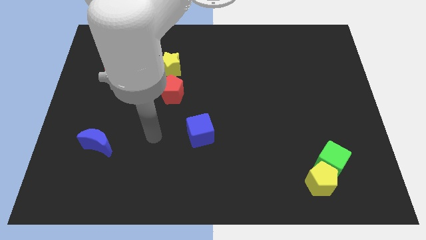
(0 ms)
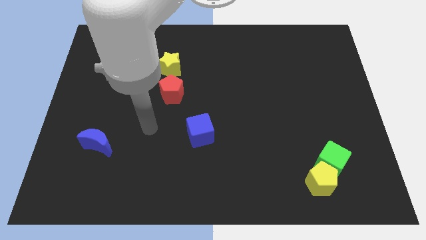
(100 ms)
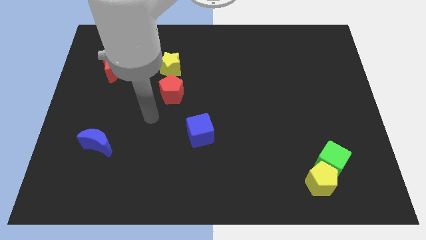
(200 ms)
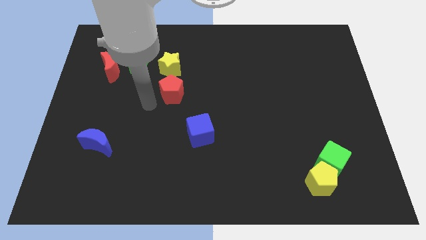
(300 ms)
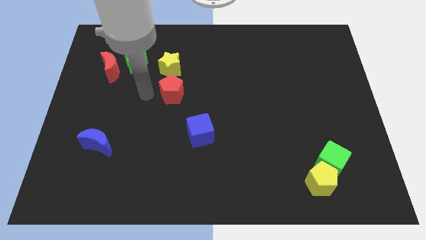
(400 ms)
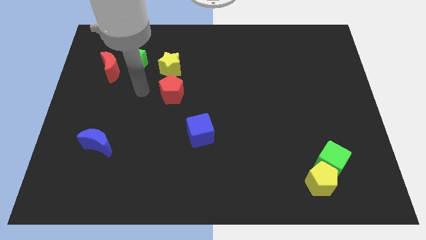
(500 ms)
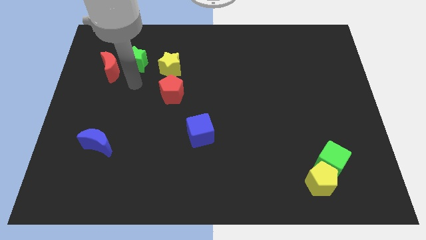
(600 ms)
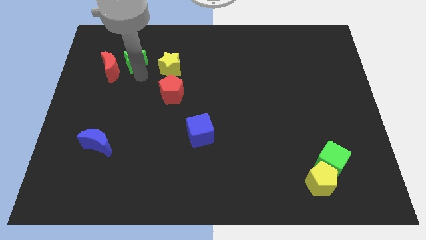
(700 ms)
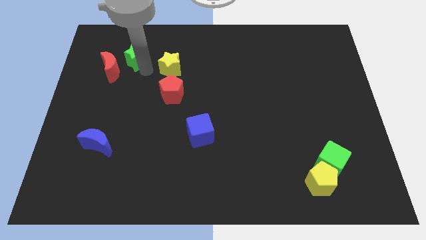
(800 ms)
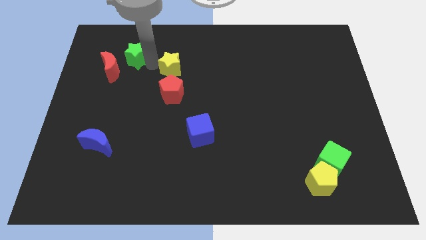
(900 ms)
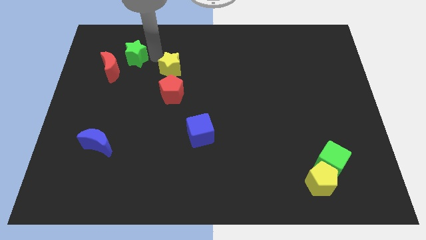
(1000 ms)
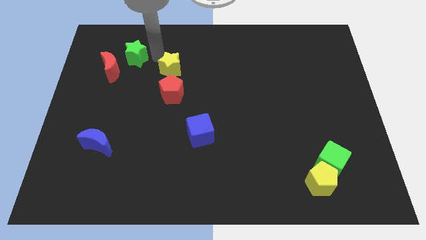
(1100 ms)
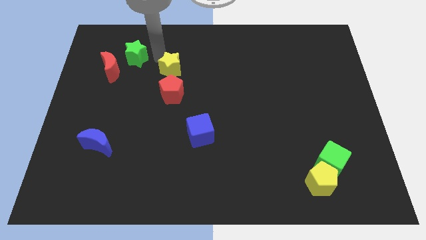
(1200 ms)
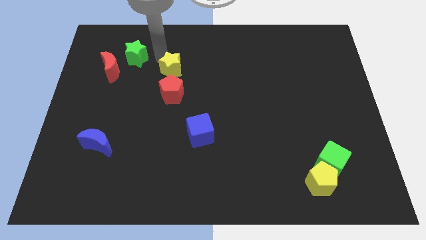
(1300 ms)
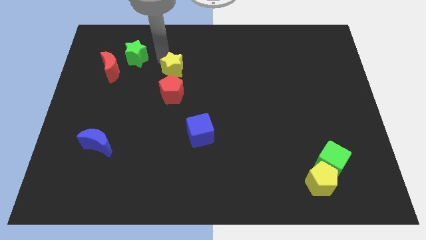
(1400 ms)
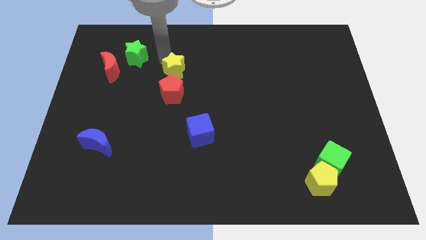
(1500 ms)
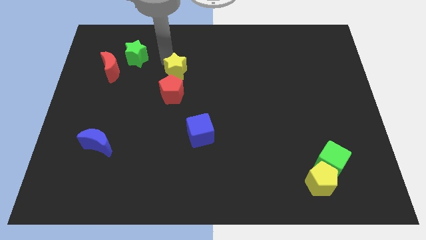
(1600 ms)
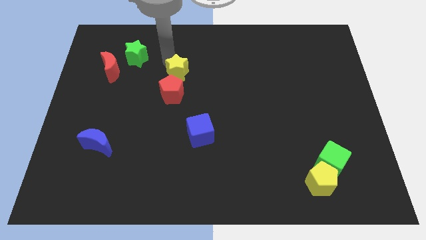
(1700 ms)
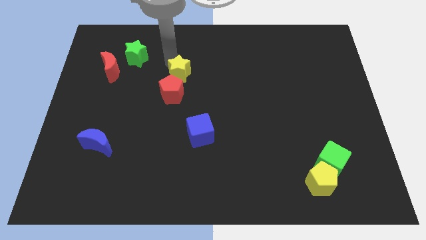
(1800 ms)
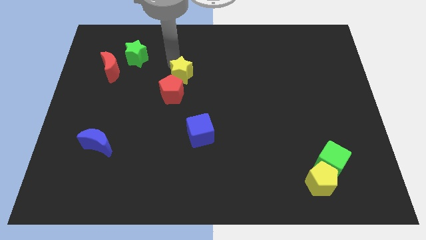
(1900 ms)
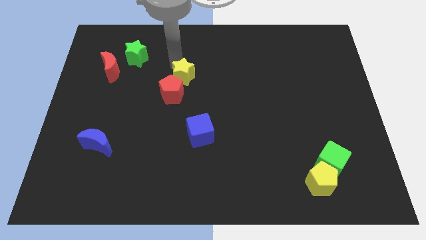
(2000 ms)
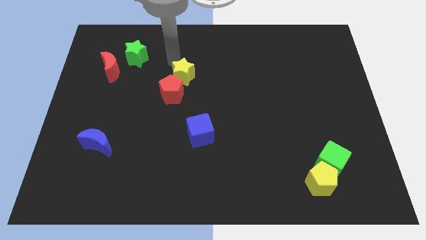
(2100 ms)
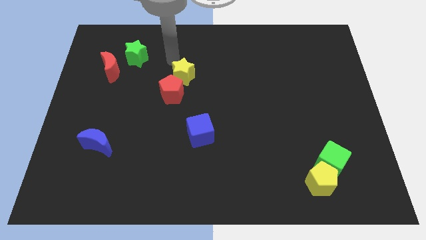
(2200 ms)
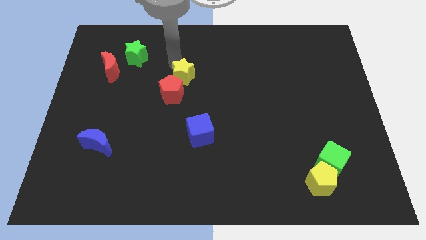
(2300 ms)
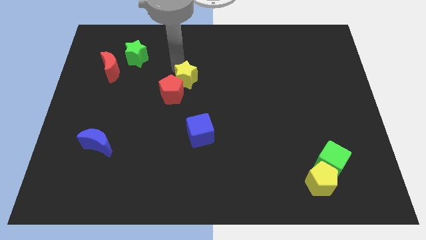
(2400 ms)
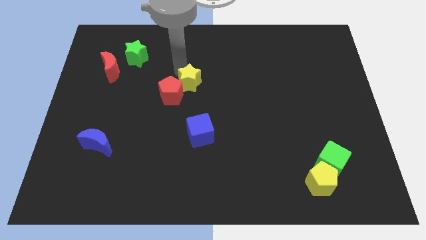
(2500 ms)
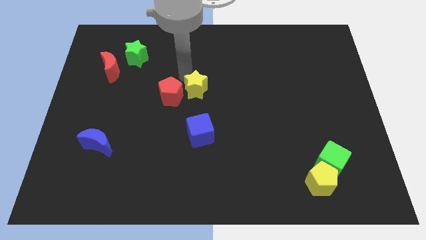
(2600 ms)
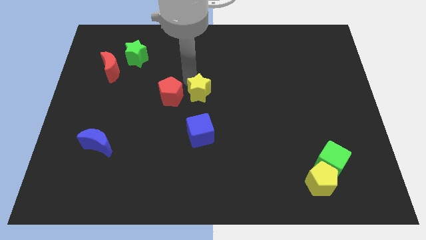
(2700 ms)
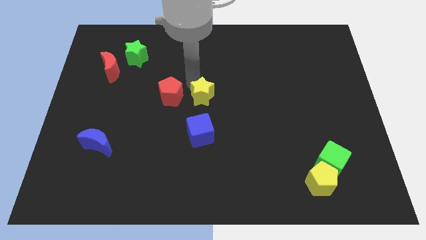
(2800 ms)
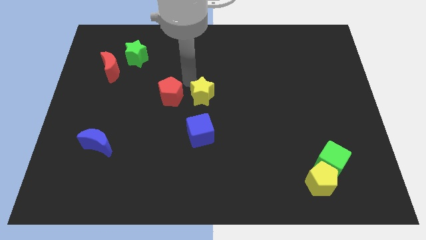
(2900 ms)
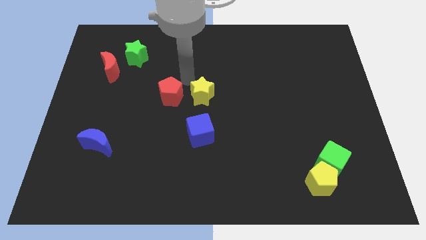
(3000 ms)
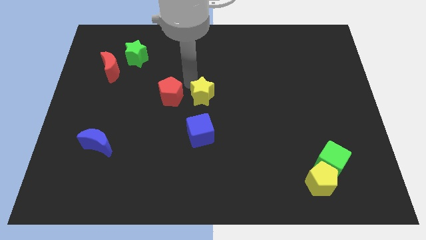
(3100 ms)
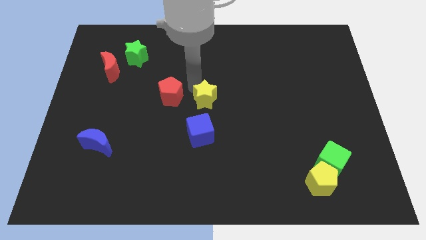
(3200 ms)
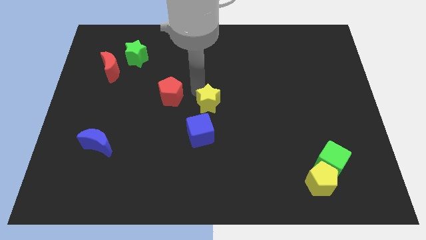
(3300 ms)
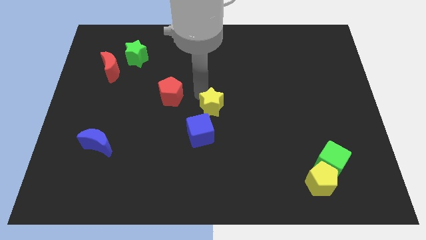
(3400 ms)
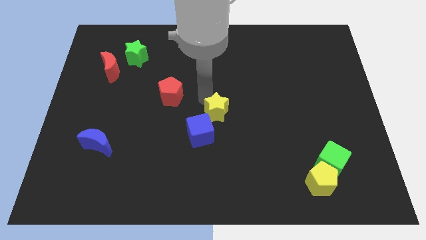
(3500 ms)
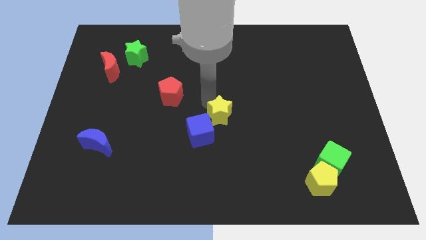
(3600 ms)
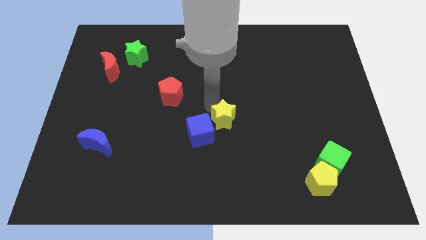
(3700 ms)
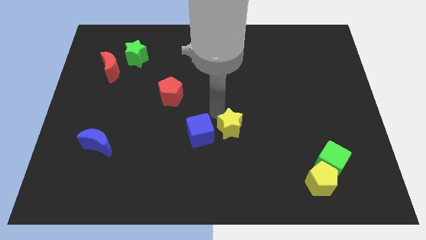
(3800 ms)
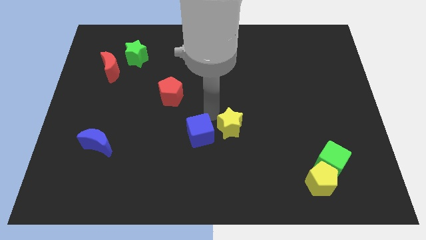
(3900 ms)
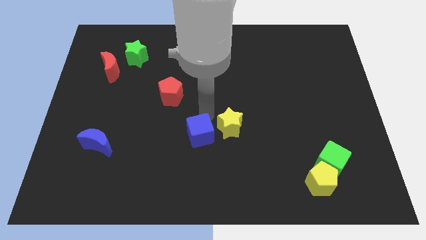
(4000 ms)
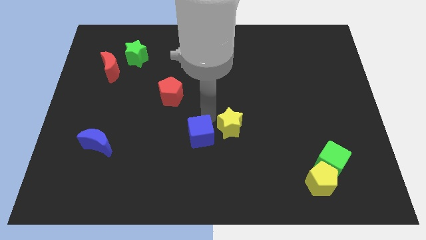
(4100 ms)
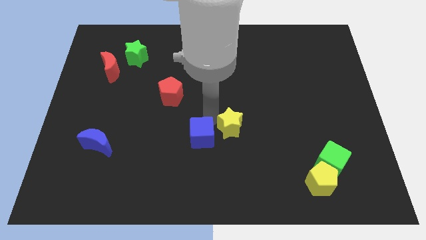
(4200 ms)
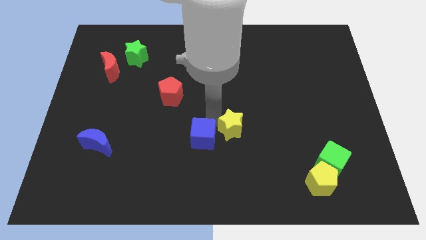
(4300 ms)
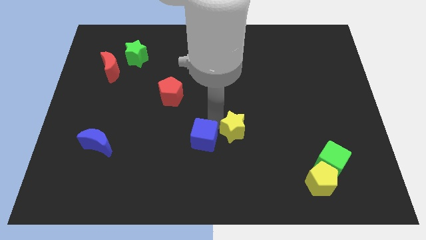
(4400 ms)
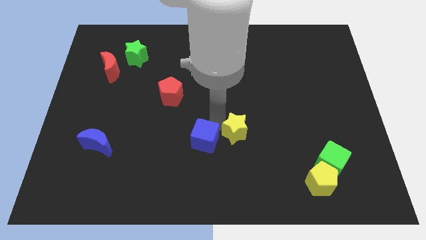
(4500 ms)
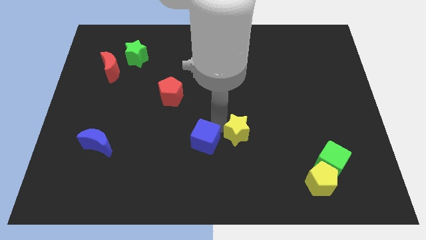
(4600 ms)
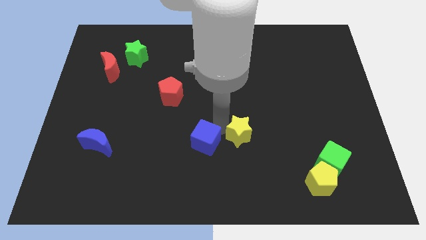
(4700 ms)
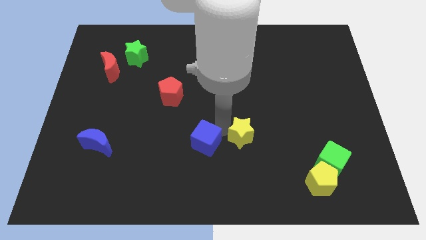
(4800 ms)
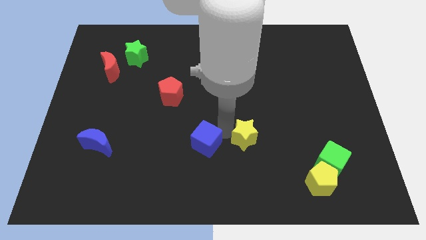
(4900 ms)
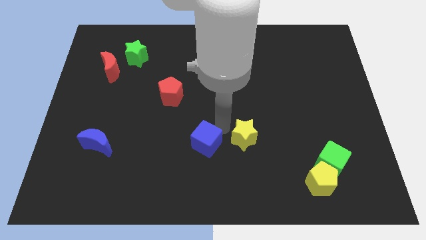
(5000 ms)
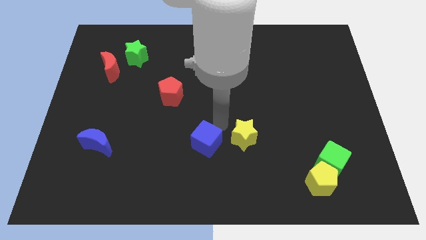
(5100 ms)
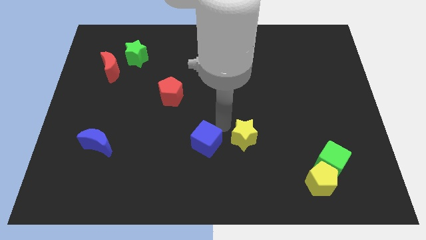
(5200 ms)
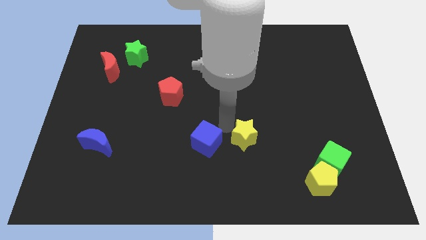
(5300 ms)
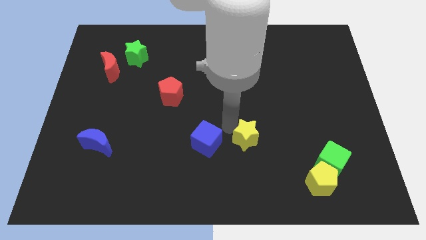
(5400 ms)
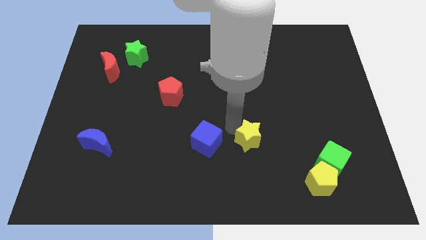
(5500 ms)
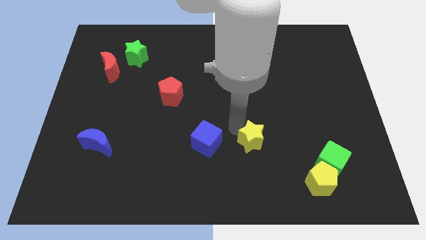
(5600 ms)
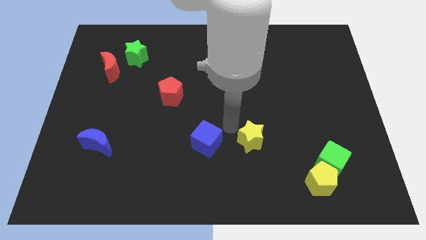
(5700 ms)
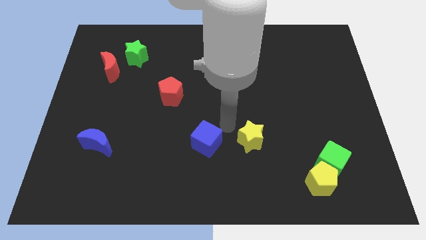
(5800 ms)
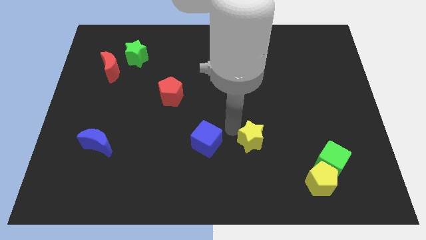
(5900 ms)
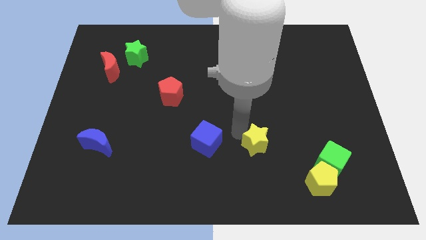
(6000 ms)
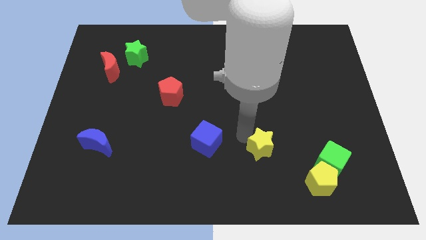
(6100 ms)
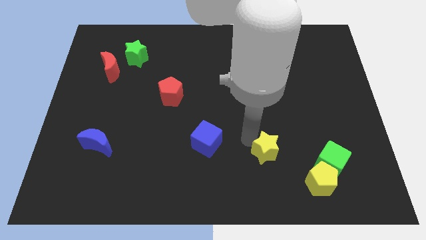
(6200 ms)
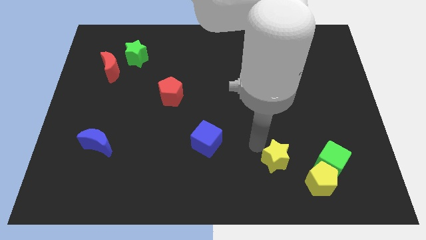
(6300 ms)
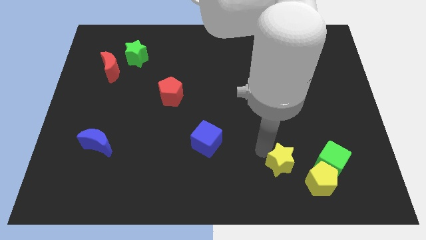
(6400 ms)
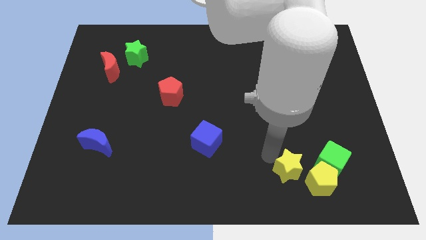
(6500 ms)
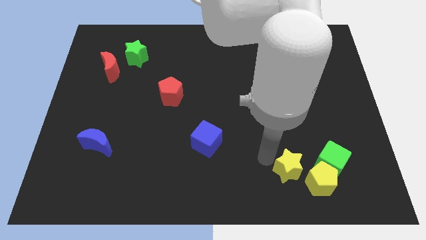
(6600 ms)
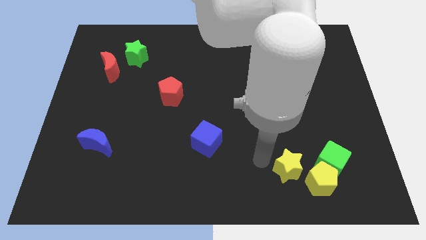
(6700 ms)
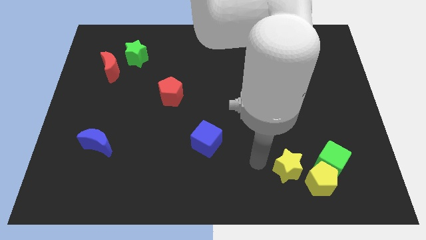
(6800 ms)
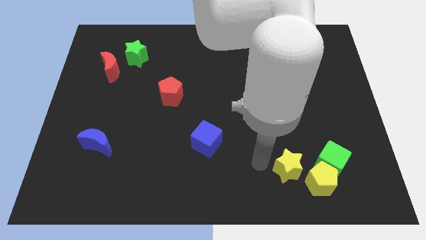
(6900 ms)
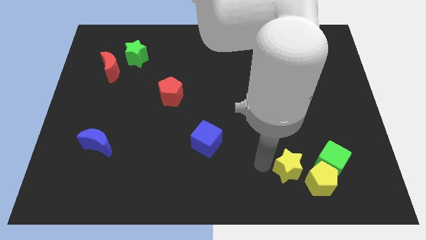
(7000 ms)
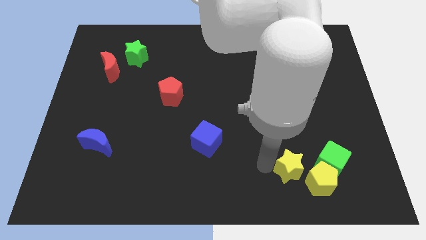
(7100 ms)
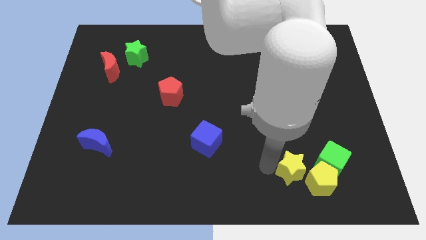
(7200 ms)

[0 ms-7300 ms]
put the yellow star to the yellow pentagon

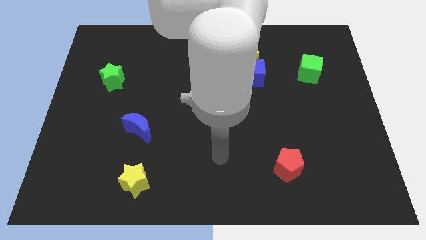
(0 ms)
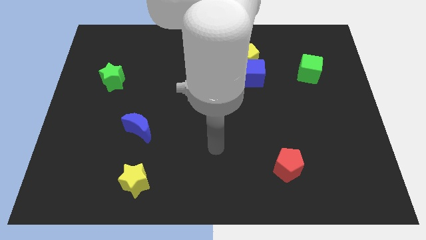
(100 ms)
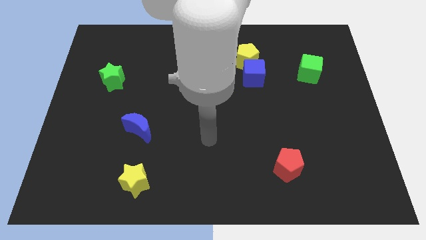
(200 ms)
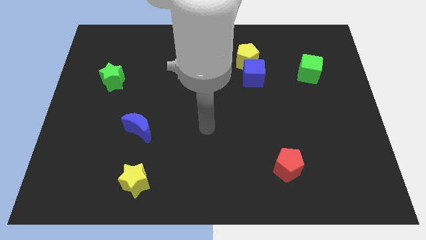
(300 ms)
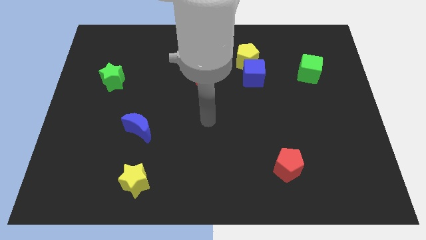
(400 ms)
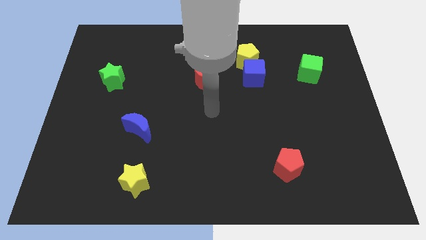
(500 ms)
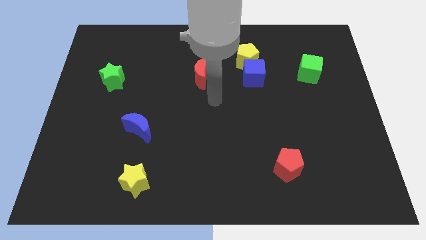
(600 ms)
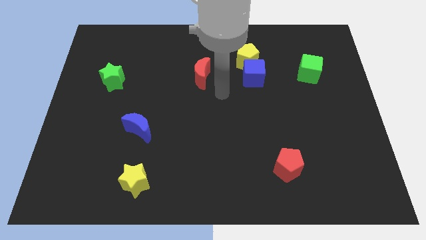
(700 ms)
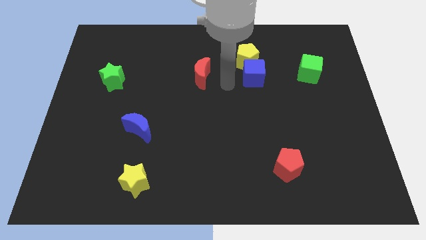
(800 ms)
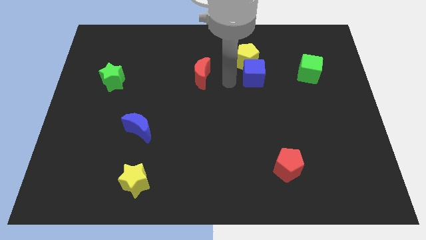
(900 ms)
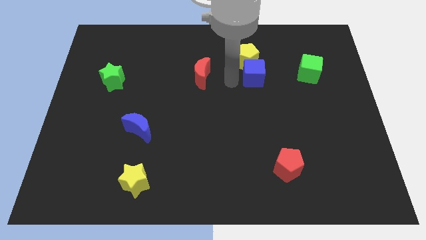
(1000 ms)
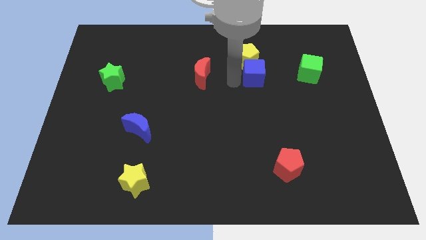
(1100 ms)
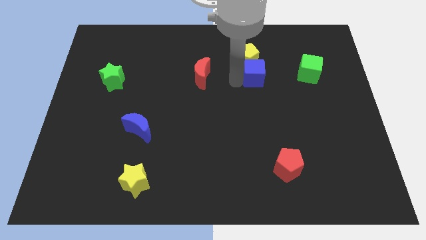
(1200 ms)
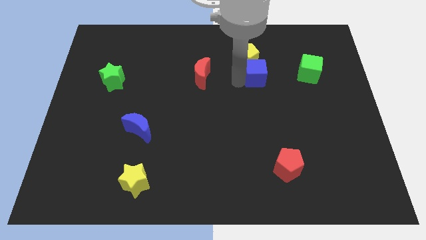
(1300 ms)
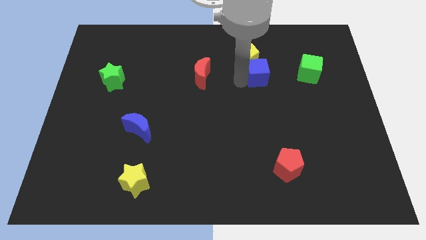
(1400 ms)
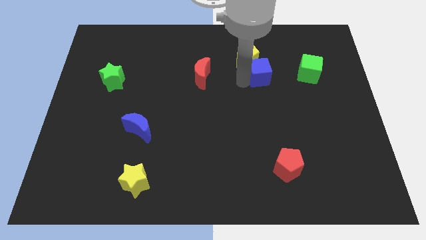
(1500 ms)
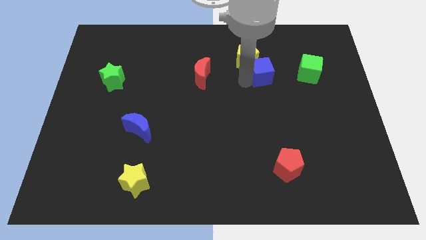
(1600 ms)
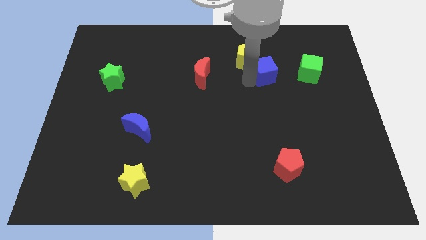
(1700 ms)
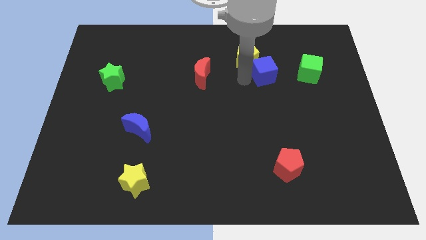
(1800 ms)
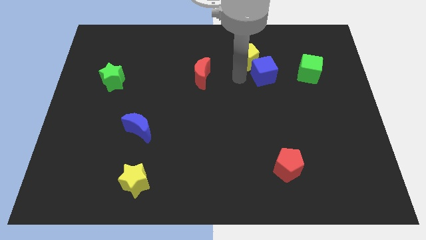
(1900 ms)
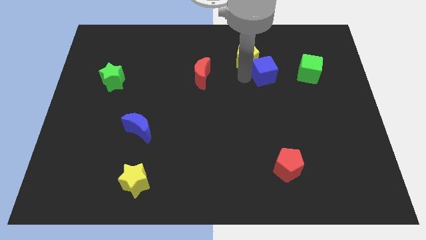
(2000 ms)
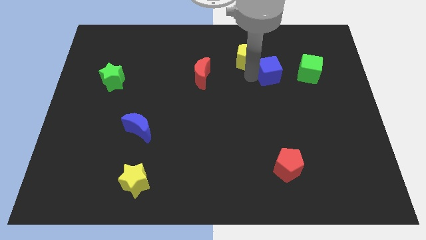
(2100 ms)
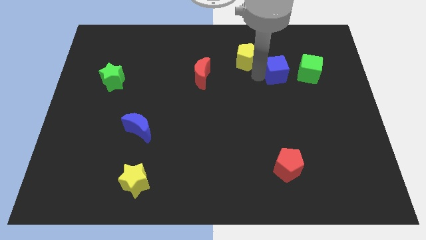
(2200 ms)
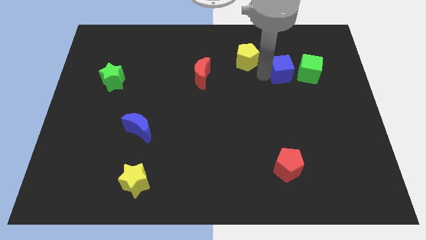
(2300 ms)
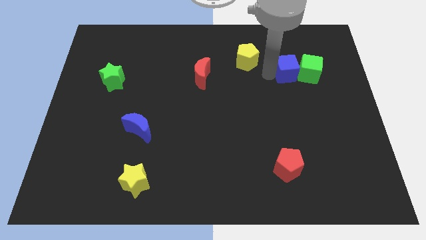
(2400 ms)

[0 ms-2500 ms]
put the blue cube towards the green cube
